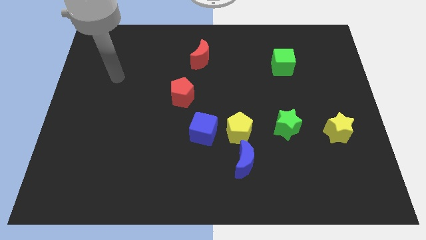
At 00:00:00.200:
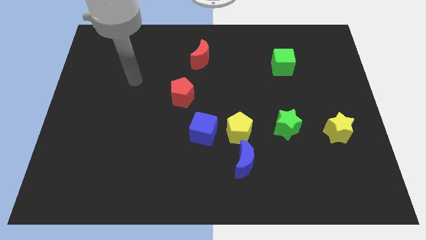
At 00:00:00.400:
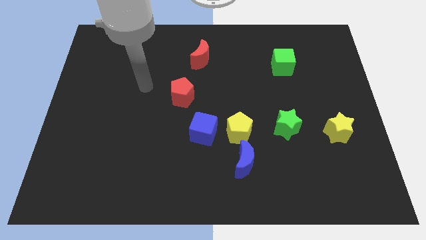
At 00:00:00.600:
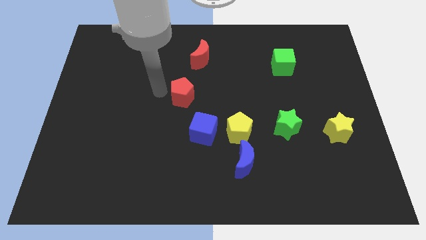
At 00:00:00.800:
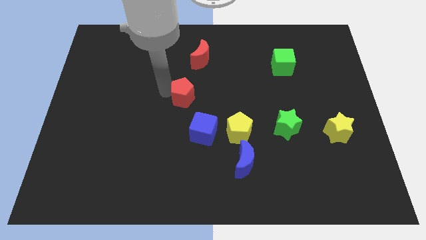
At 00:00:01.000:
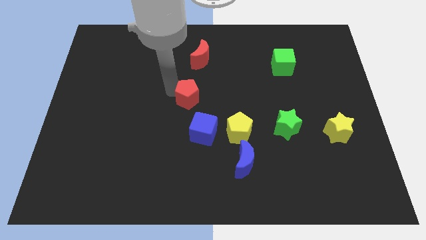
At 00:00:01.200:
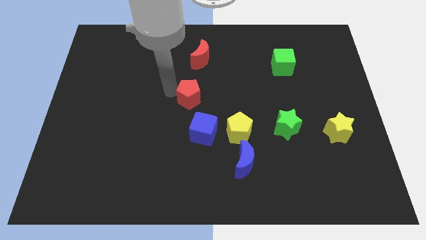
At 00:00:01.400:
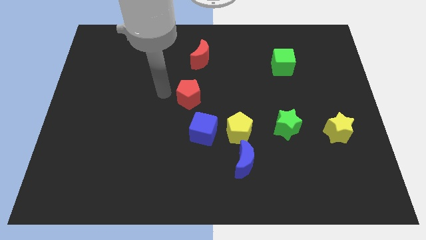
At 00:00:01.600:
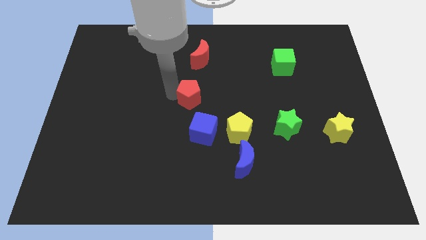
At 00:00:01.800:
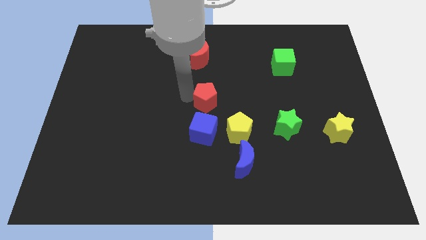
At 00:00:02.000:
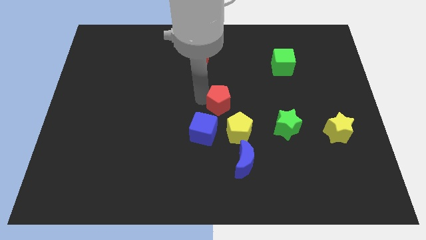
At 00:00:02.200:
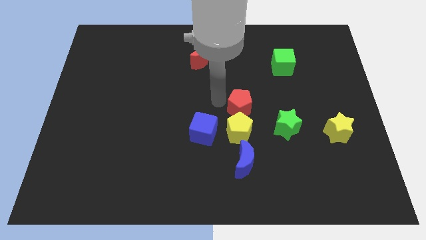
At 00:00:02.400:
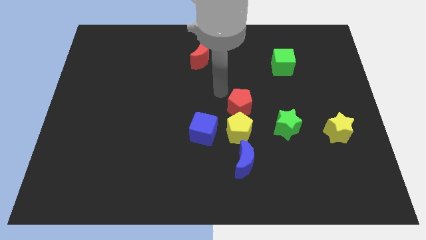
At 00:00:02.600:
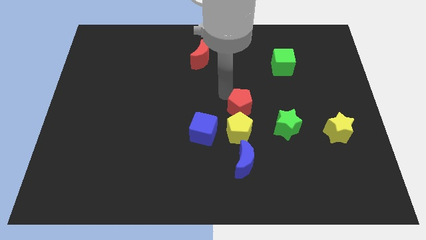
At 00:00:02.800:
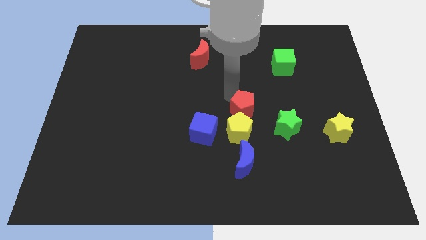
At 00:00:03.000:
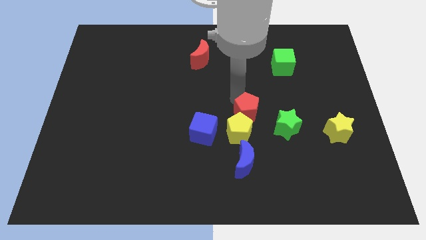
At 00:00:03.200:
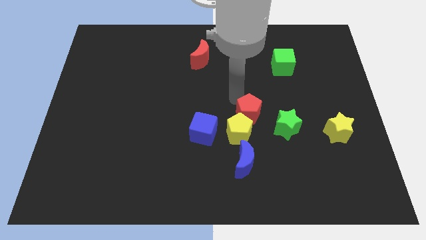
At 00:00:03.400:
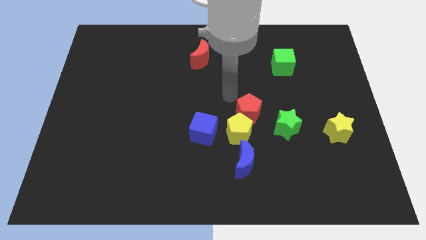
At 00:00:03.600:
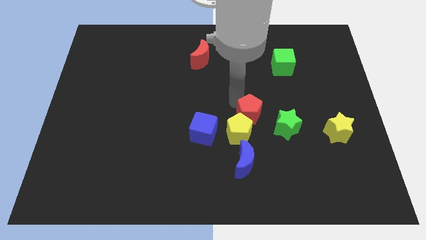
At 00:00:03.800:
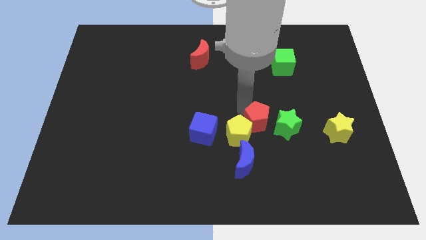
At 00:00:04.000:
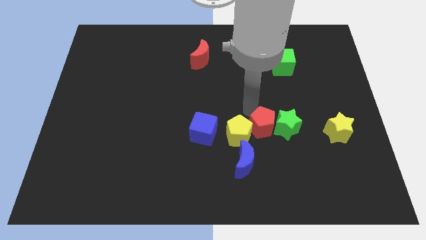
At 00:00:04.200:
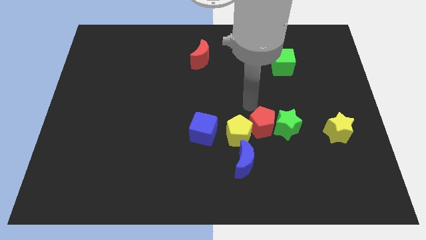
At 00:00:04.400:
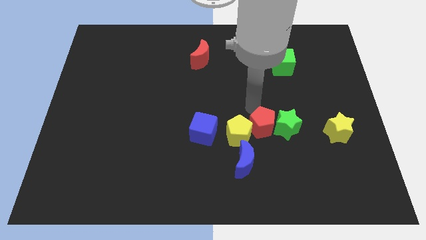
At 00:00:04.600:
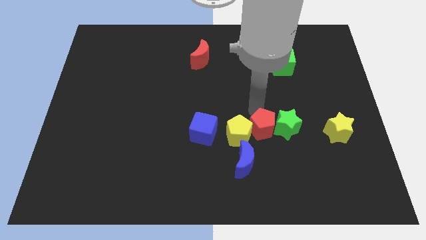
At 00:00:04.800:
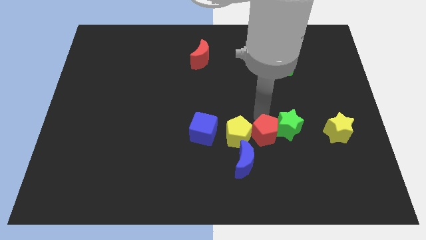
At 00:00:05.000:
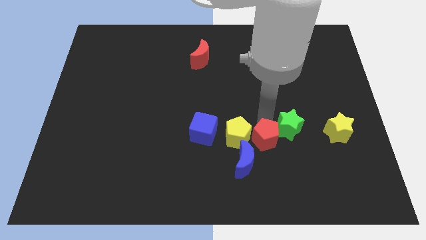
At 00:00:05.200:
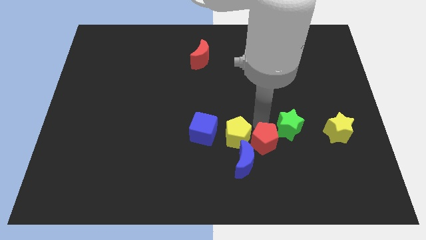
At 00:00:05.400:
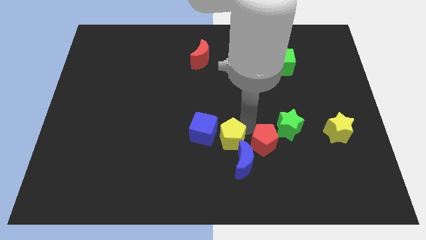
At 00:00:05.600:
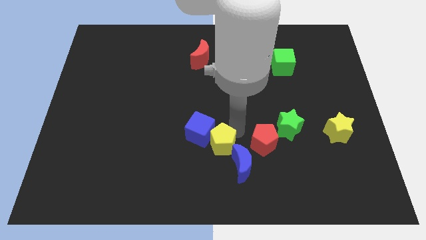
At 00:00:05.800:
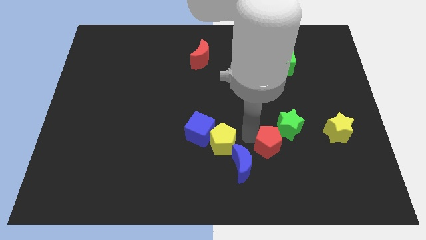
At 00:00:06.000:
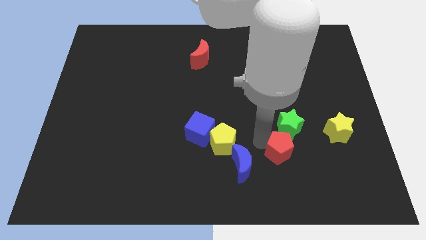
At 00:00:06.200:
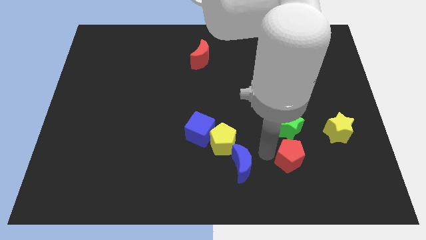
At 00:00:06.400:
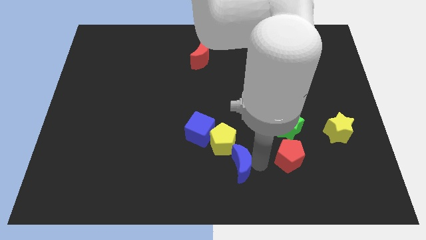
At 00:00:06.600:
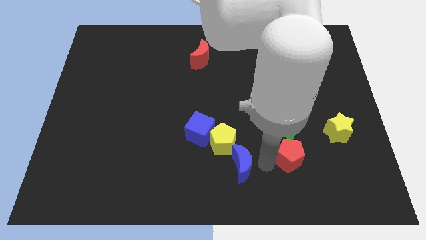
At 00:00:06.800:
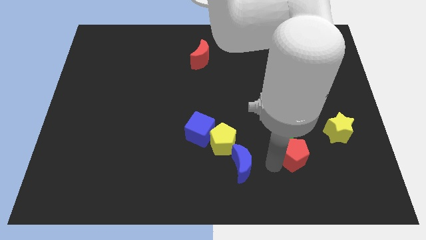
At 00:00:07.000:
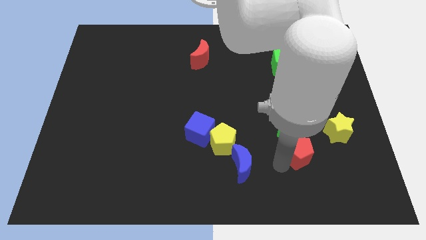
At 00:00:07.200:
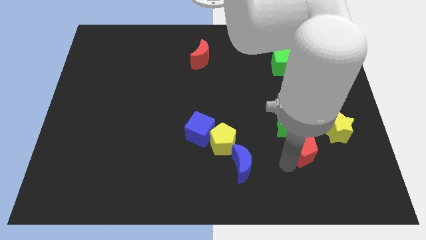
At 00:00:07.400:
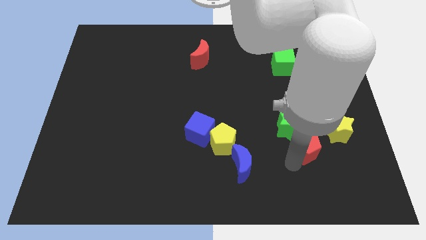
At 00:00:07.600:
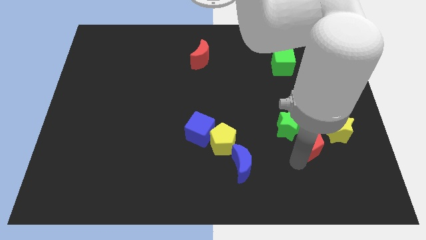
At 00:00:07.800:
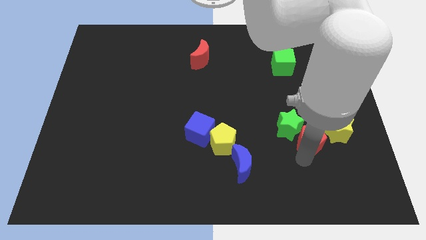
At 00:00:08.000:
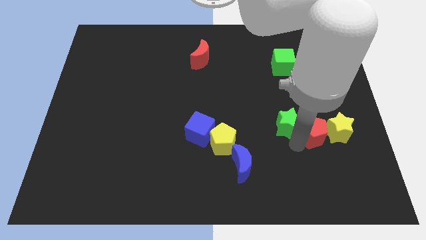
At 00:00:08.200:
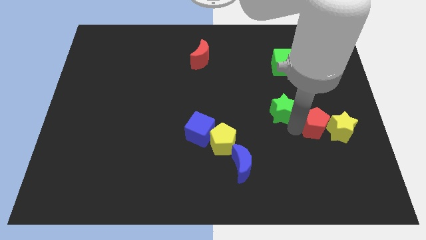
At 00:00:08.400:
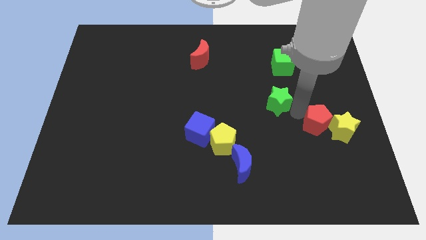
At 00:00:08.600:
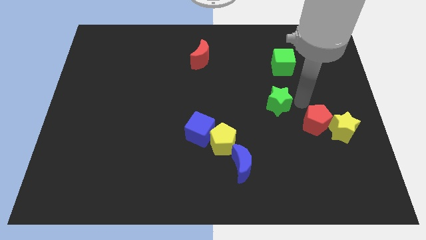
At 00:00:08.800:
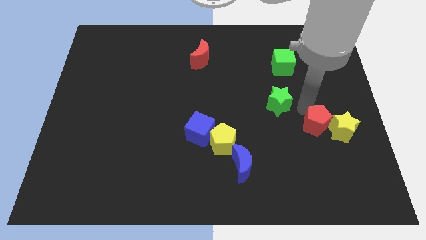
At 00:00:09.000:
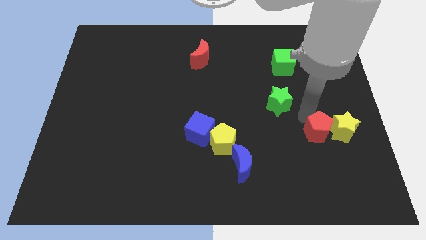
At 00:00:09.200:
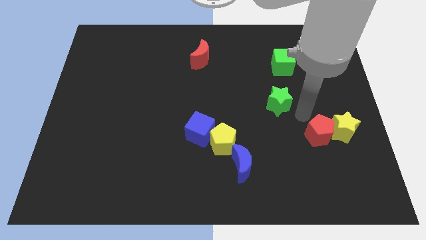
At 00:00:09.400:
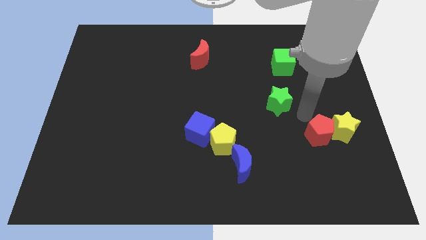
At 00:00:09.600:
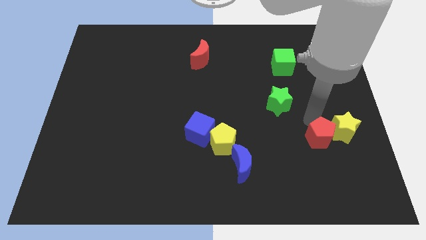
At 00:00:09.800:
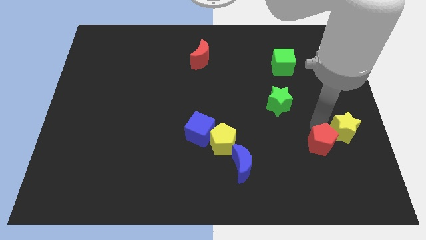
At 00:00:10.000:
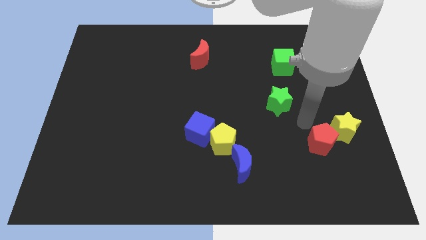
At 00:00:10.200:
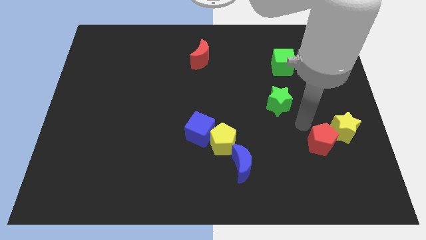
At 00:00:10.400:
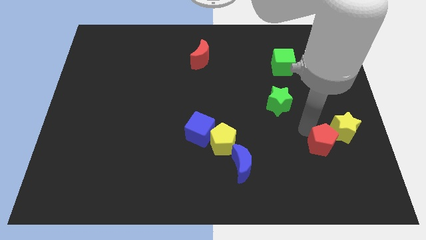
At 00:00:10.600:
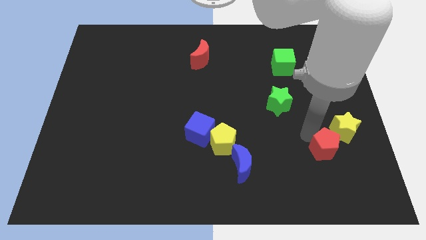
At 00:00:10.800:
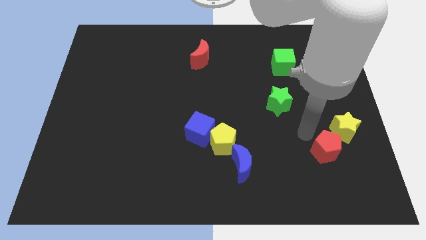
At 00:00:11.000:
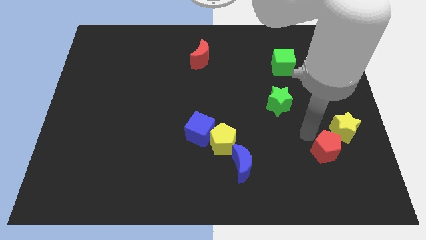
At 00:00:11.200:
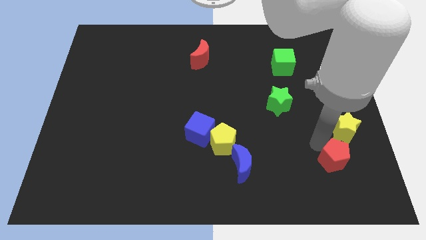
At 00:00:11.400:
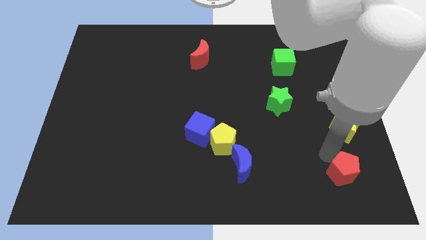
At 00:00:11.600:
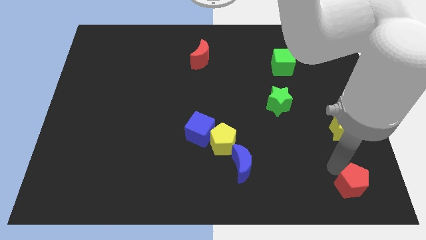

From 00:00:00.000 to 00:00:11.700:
put the red pentagon to the bottom right corner

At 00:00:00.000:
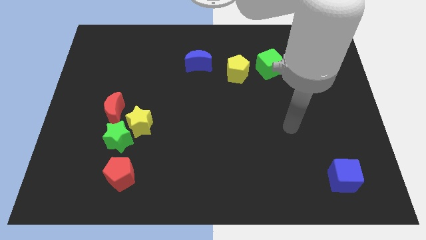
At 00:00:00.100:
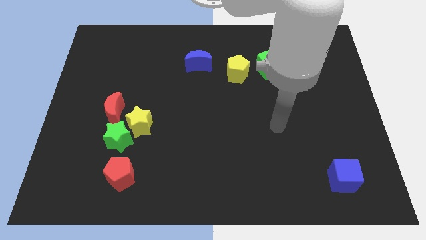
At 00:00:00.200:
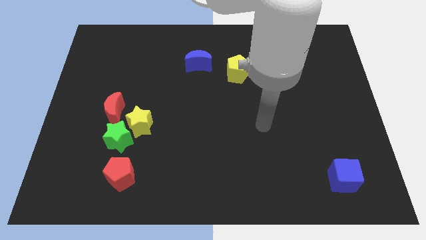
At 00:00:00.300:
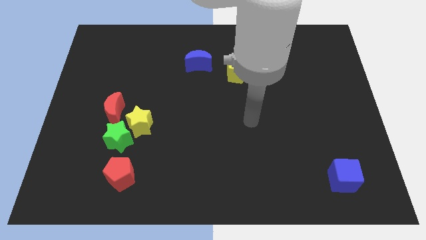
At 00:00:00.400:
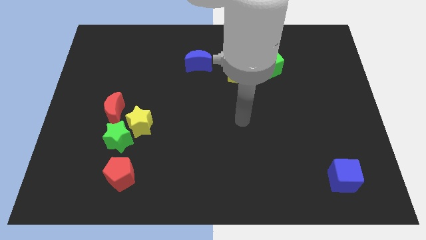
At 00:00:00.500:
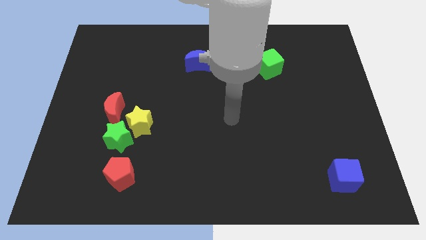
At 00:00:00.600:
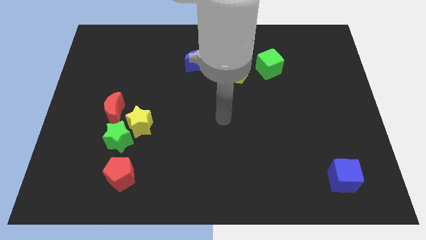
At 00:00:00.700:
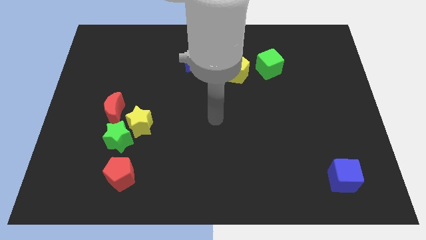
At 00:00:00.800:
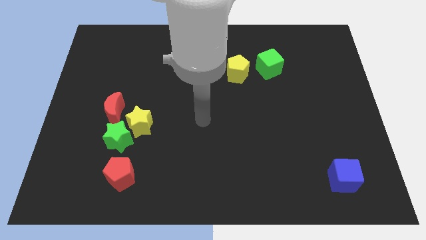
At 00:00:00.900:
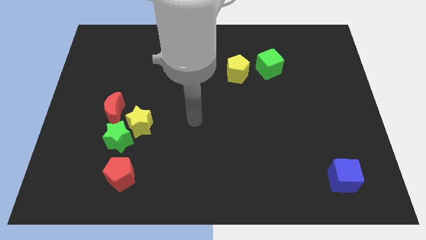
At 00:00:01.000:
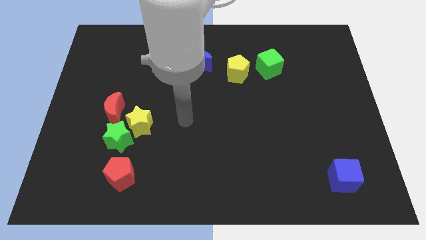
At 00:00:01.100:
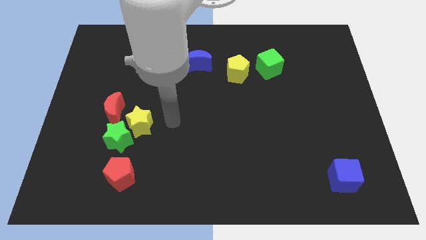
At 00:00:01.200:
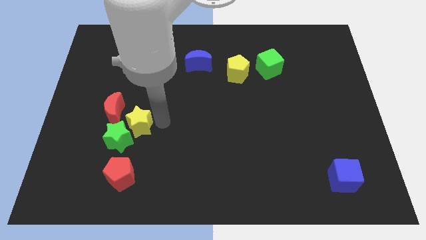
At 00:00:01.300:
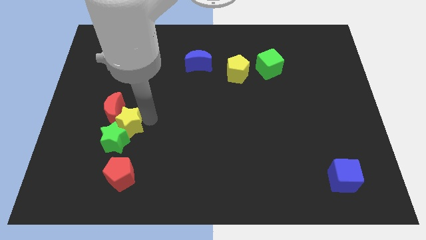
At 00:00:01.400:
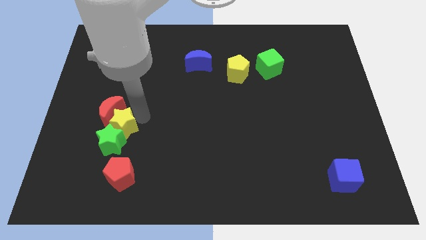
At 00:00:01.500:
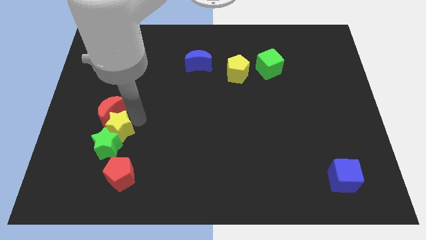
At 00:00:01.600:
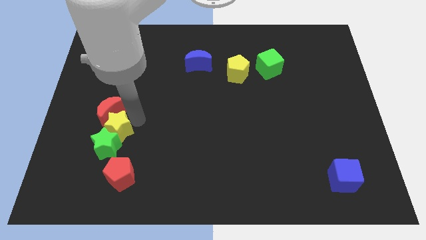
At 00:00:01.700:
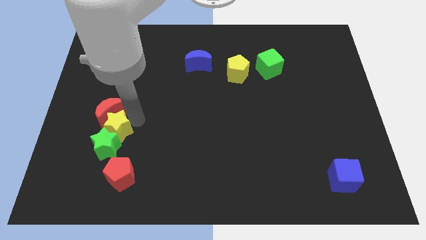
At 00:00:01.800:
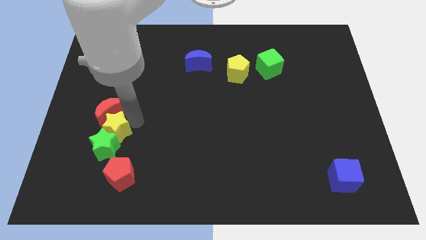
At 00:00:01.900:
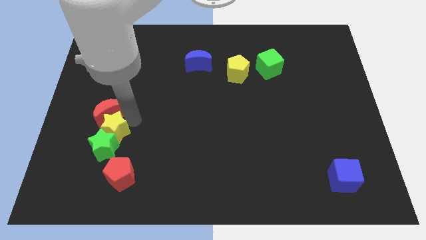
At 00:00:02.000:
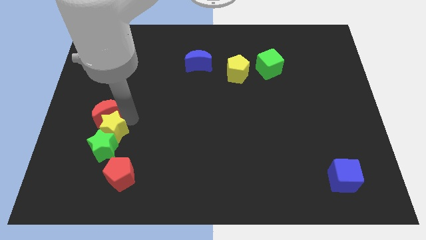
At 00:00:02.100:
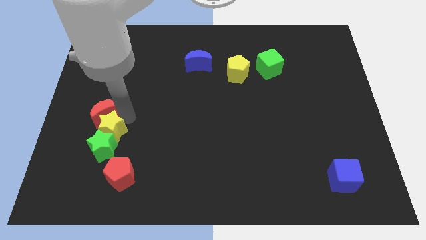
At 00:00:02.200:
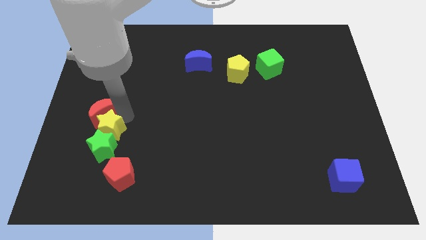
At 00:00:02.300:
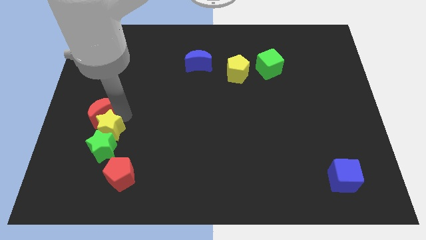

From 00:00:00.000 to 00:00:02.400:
push the red moon to the left side
